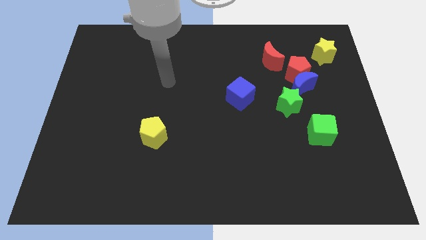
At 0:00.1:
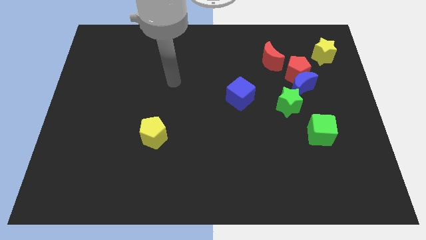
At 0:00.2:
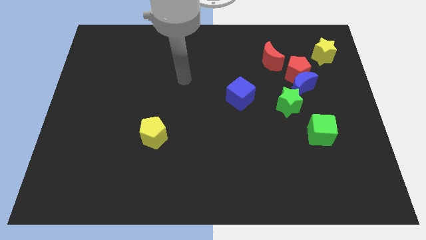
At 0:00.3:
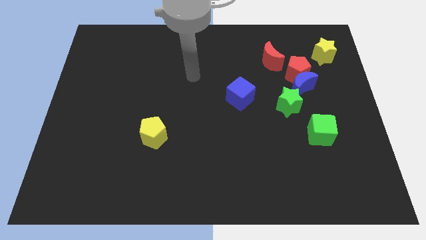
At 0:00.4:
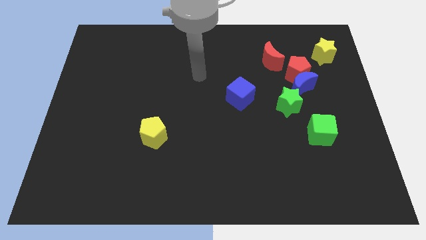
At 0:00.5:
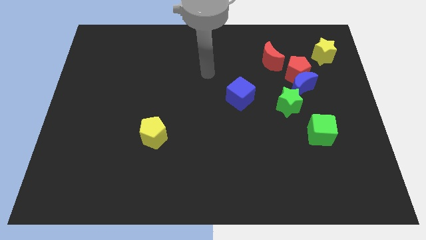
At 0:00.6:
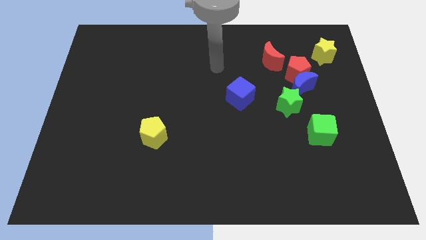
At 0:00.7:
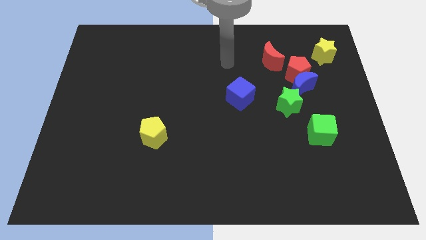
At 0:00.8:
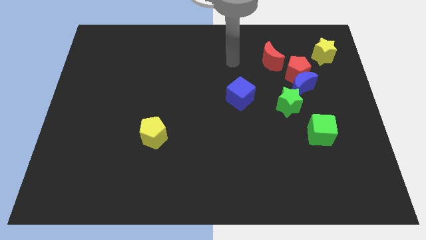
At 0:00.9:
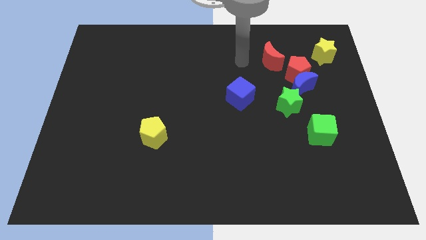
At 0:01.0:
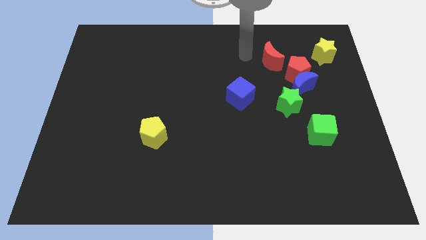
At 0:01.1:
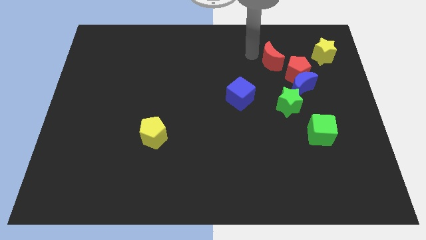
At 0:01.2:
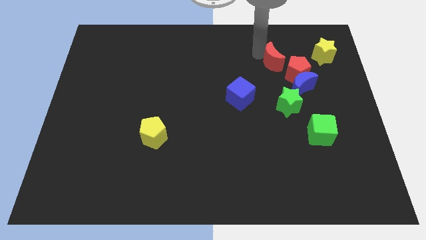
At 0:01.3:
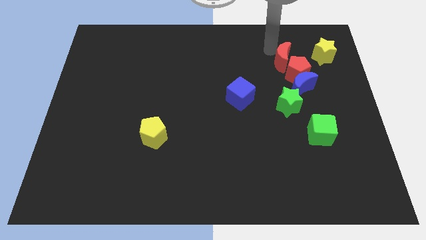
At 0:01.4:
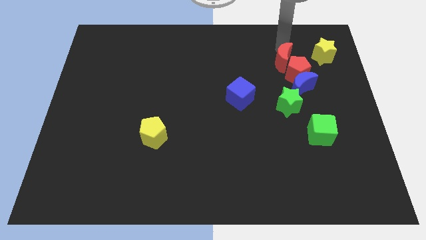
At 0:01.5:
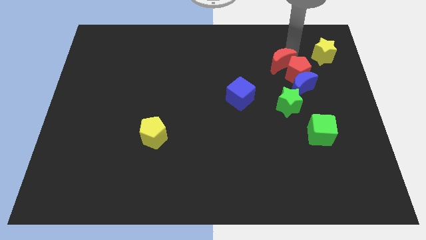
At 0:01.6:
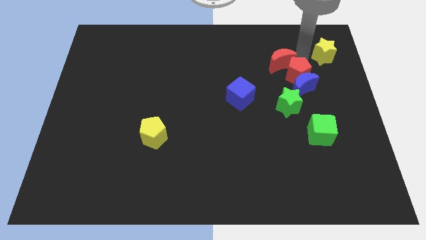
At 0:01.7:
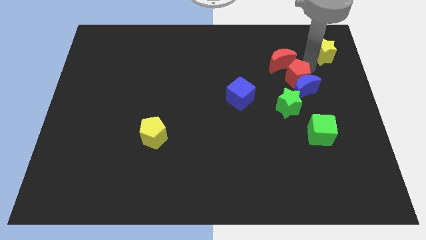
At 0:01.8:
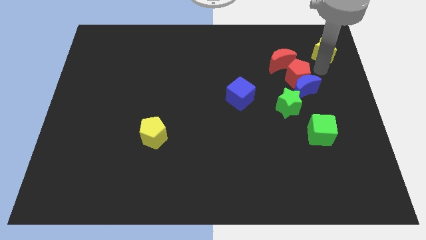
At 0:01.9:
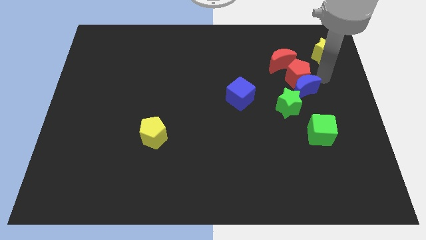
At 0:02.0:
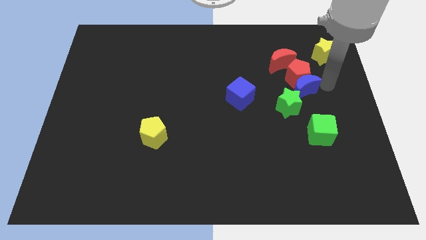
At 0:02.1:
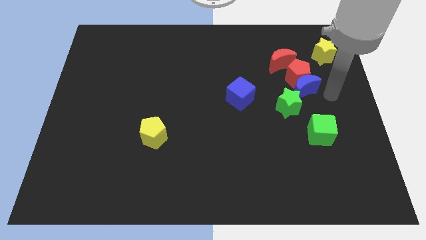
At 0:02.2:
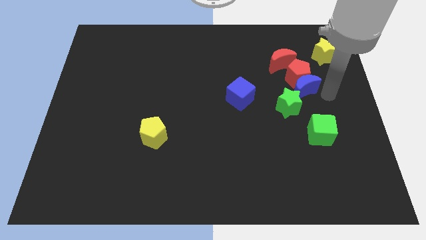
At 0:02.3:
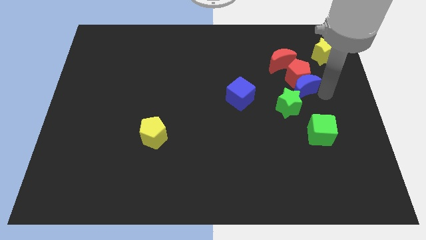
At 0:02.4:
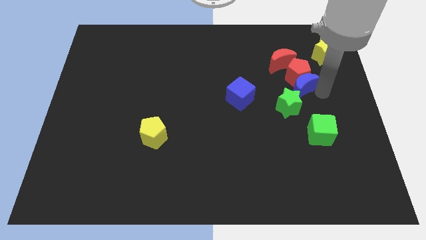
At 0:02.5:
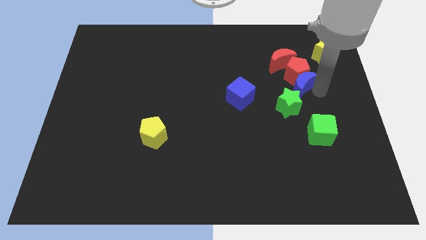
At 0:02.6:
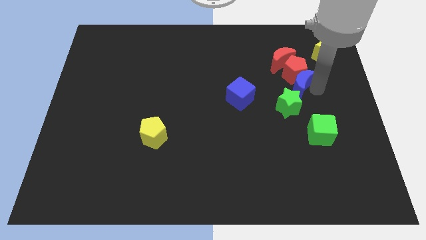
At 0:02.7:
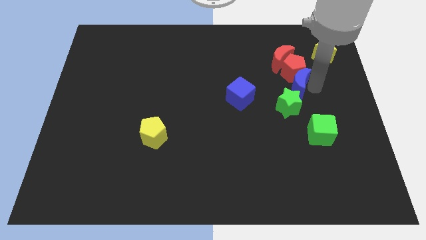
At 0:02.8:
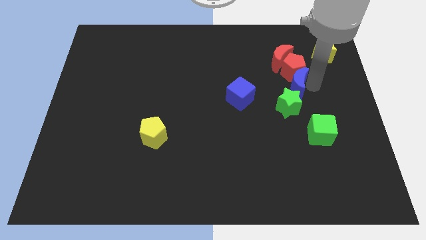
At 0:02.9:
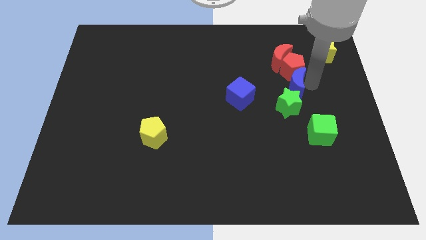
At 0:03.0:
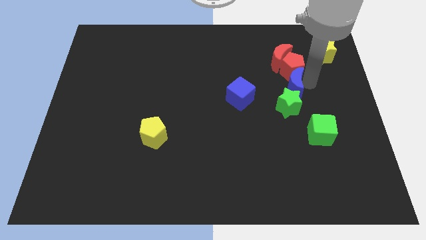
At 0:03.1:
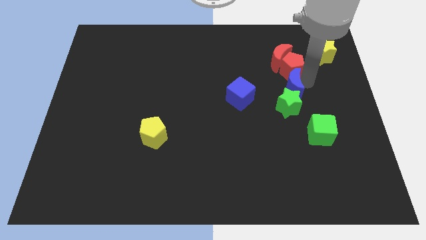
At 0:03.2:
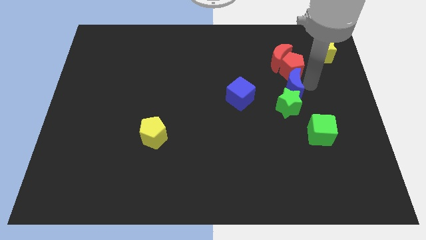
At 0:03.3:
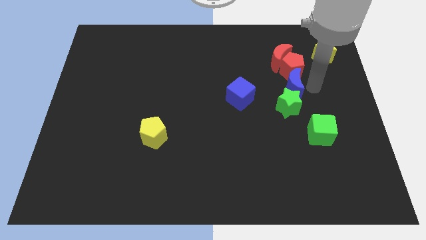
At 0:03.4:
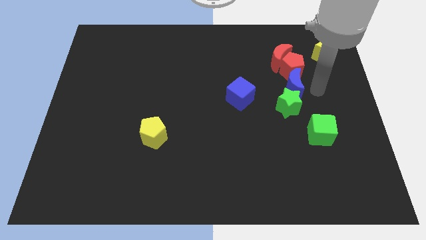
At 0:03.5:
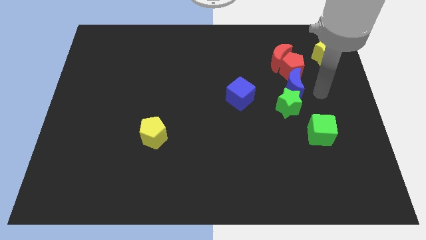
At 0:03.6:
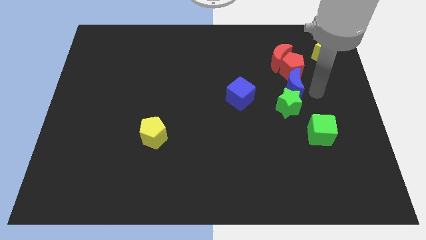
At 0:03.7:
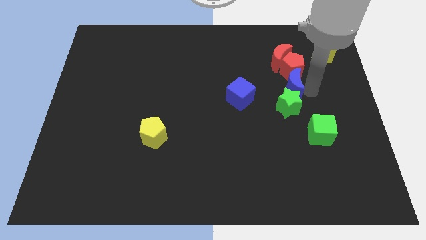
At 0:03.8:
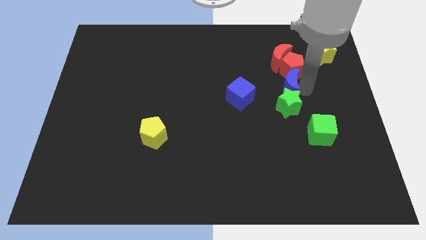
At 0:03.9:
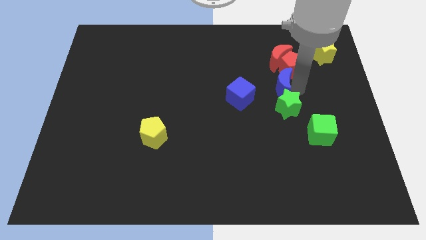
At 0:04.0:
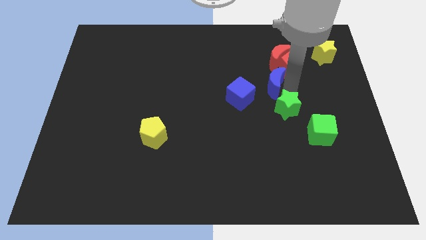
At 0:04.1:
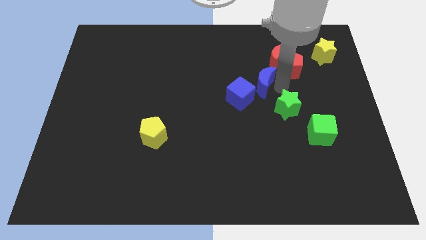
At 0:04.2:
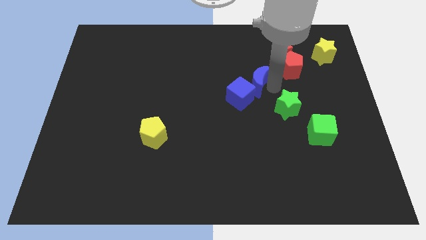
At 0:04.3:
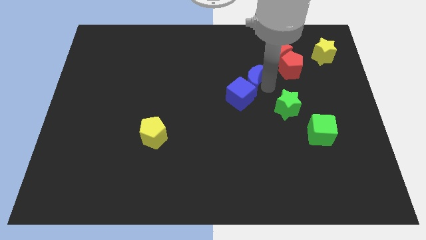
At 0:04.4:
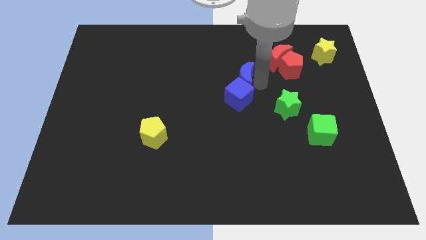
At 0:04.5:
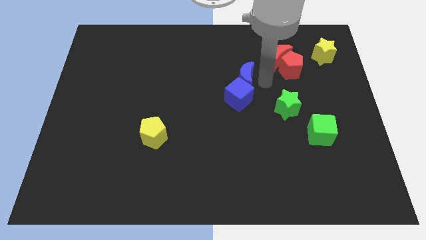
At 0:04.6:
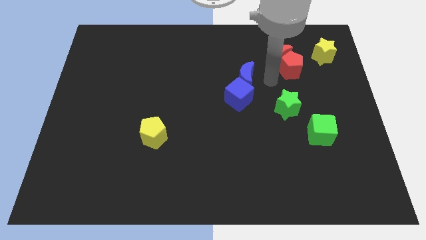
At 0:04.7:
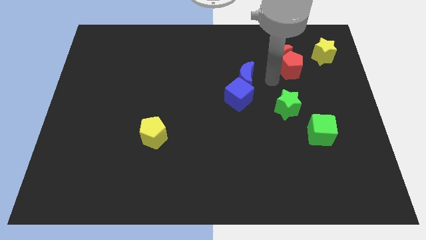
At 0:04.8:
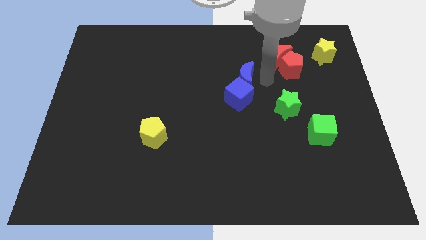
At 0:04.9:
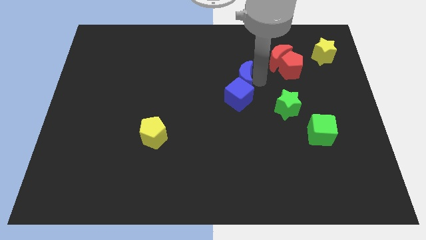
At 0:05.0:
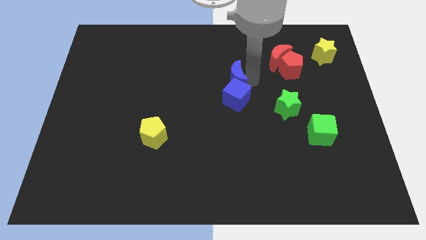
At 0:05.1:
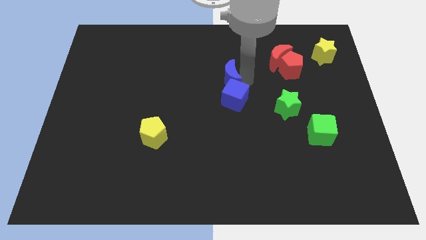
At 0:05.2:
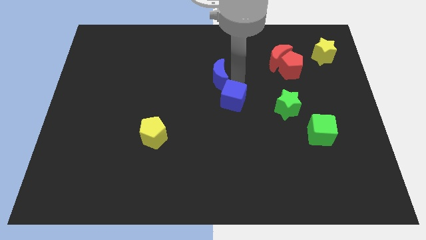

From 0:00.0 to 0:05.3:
move the blue moon to the left

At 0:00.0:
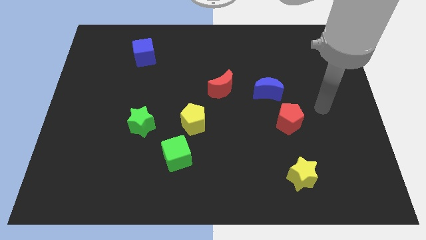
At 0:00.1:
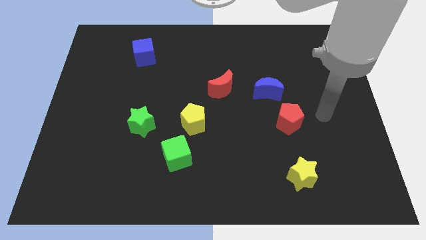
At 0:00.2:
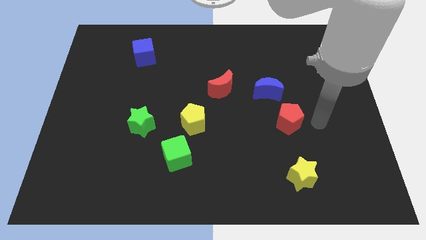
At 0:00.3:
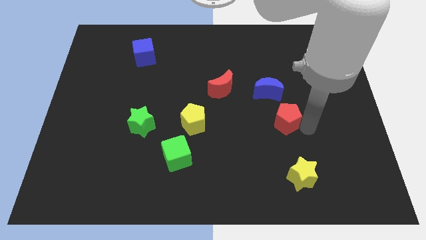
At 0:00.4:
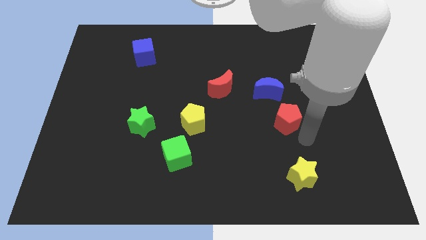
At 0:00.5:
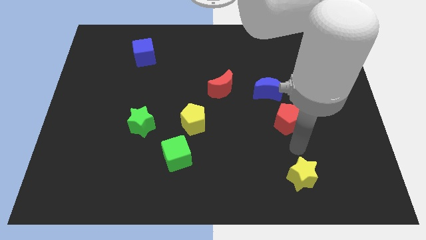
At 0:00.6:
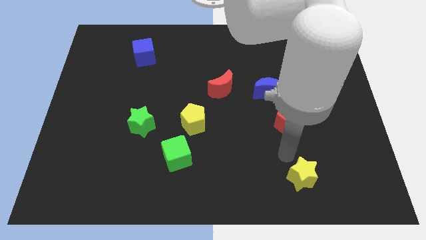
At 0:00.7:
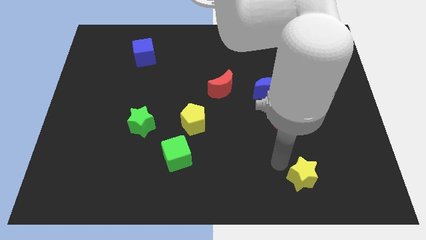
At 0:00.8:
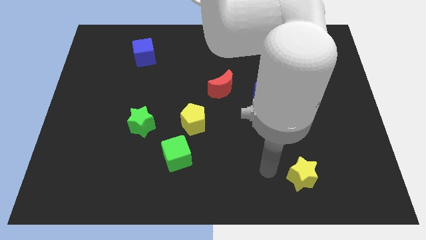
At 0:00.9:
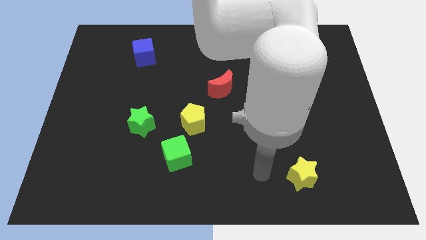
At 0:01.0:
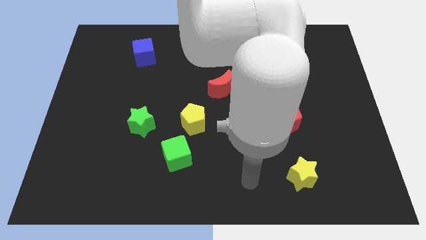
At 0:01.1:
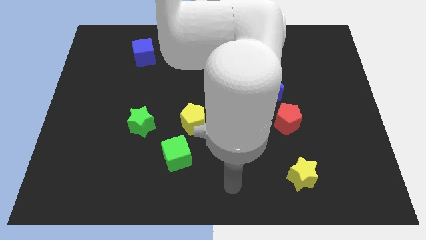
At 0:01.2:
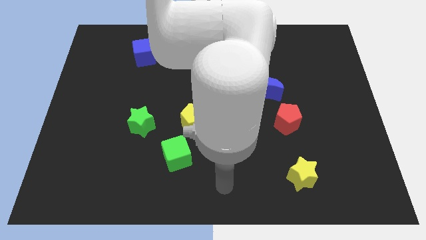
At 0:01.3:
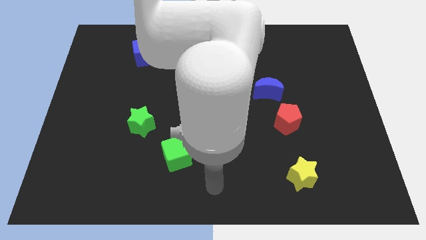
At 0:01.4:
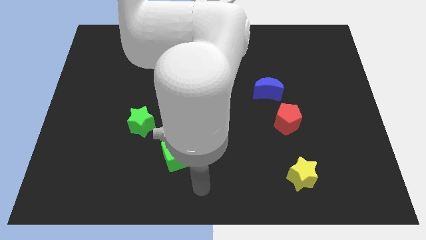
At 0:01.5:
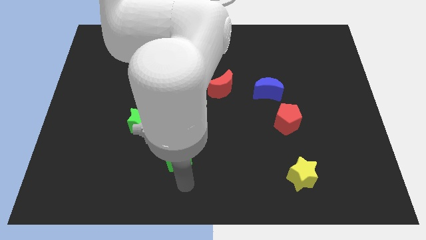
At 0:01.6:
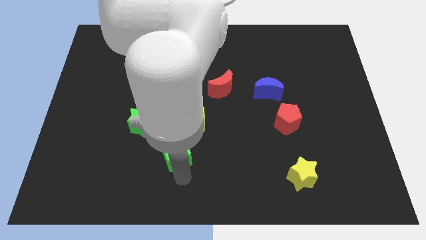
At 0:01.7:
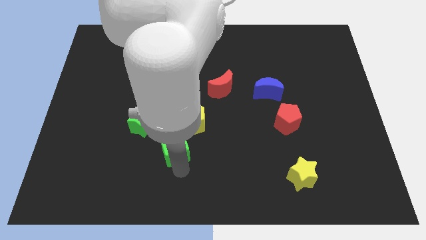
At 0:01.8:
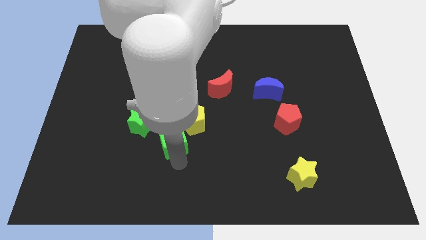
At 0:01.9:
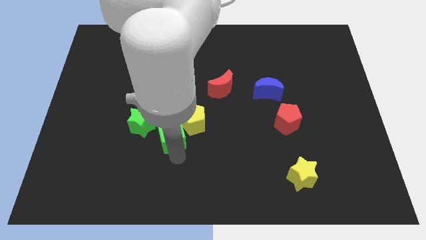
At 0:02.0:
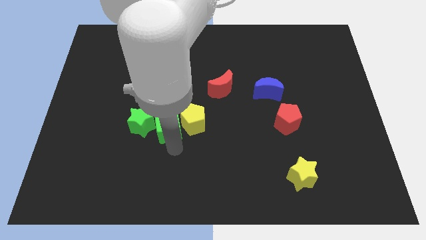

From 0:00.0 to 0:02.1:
move the green cube a little bit upwards

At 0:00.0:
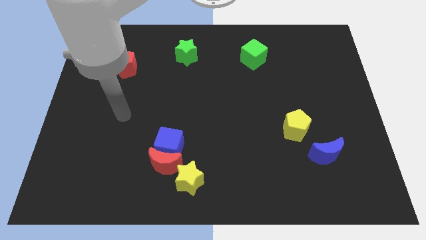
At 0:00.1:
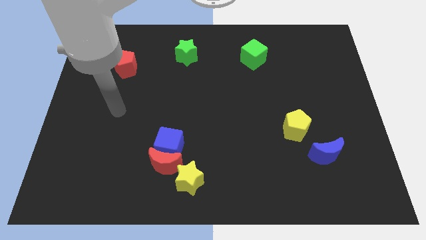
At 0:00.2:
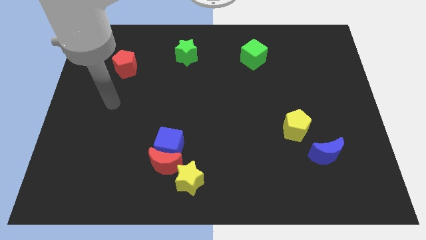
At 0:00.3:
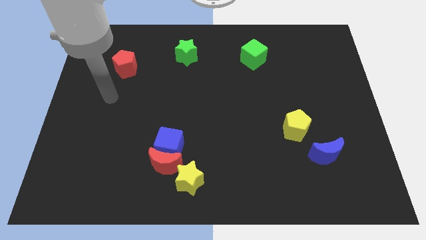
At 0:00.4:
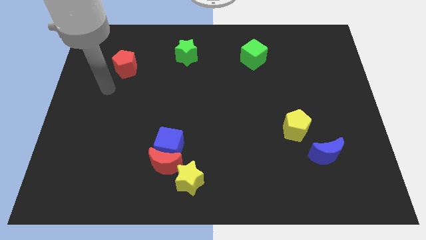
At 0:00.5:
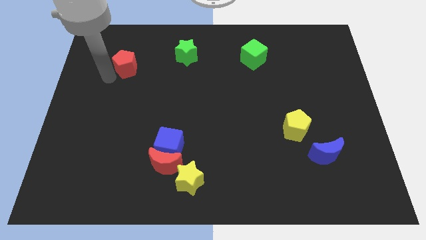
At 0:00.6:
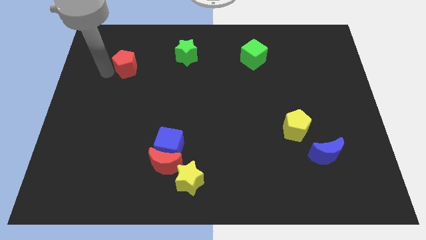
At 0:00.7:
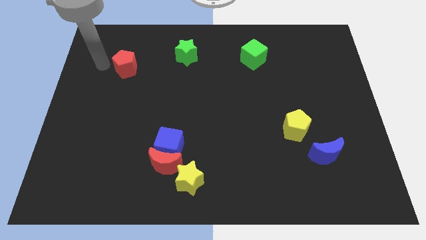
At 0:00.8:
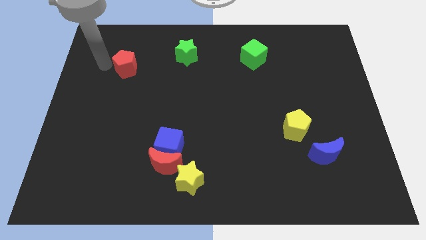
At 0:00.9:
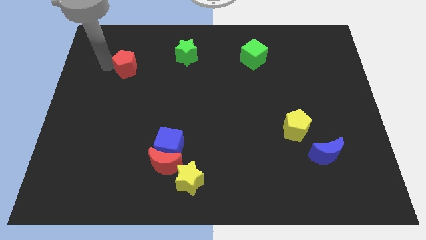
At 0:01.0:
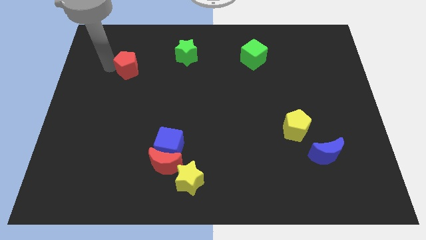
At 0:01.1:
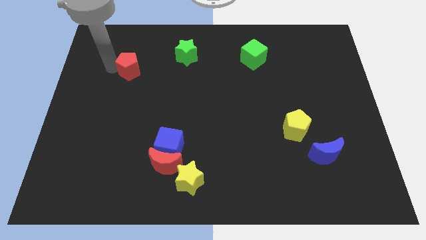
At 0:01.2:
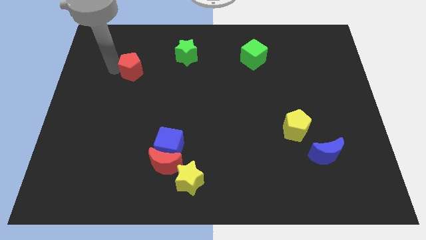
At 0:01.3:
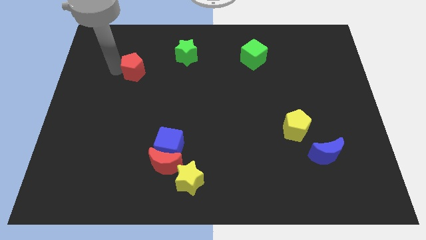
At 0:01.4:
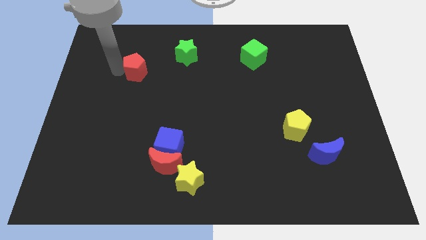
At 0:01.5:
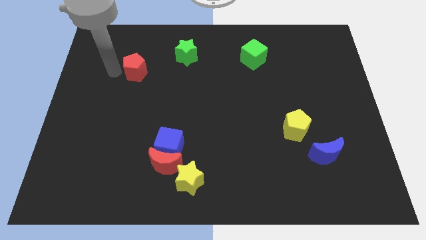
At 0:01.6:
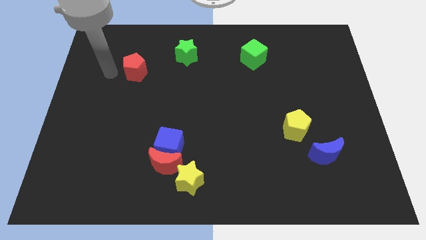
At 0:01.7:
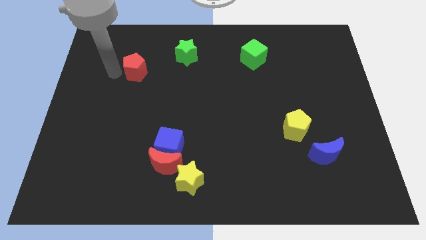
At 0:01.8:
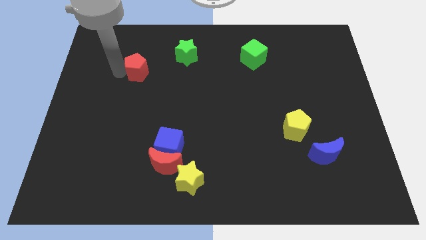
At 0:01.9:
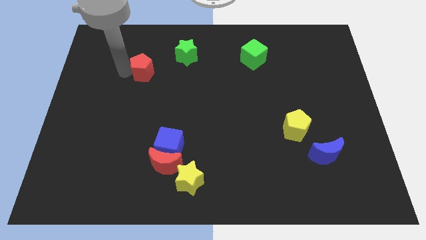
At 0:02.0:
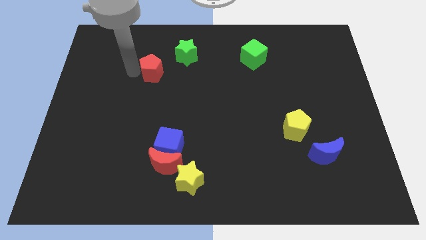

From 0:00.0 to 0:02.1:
slightly push the red pentagon to the right
